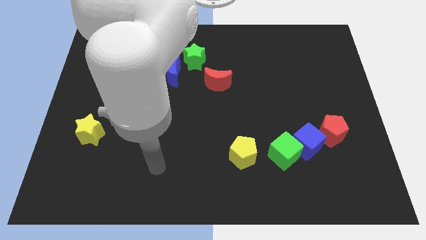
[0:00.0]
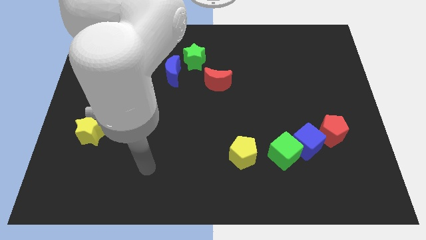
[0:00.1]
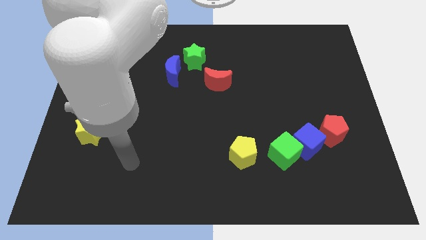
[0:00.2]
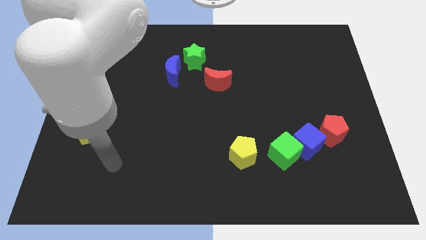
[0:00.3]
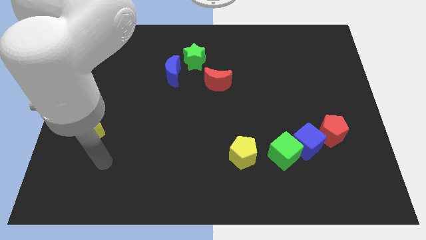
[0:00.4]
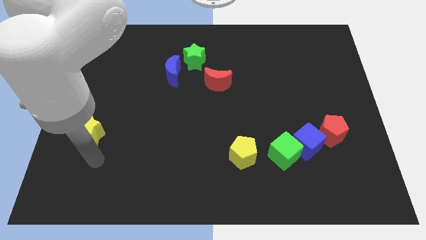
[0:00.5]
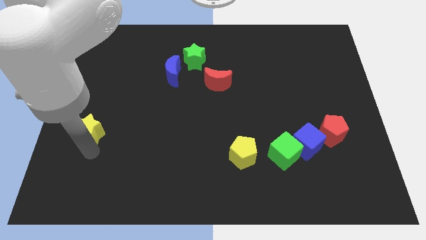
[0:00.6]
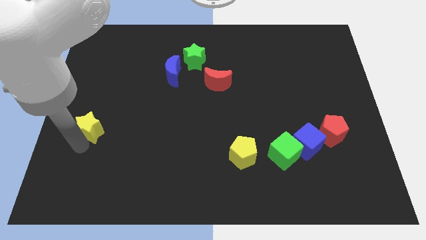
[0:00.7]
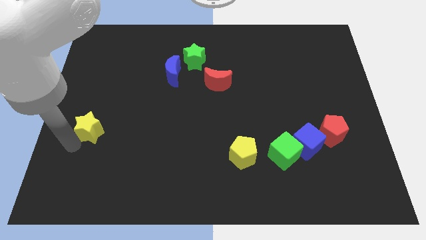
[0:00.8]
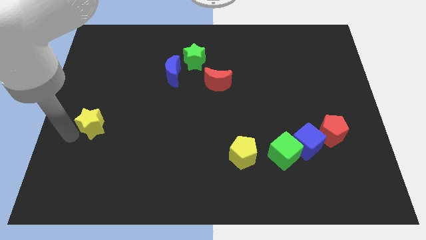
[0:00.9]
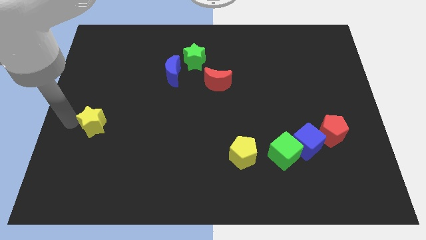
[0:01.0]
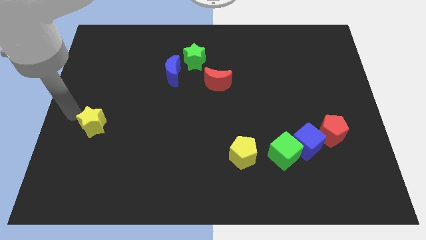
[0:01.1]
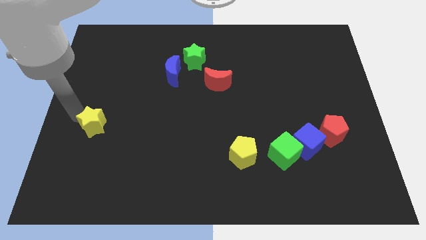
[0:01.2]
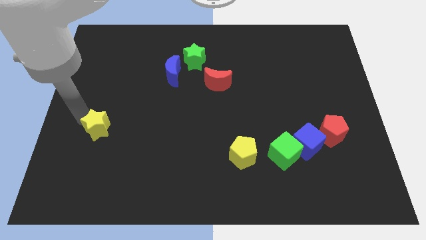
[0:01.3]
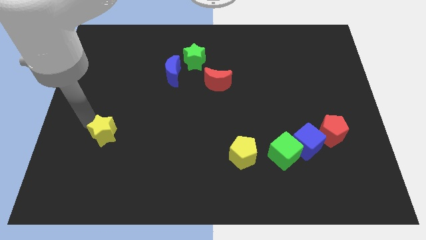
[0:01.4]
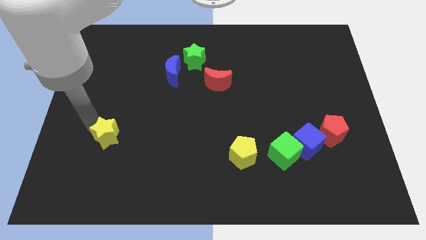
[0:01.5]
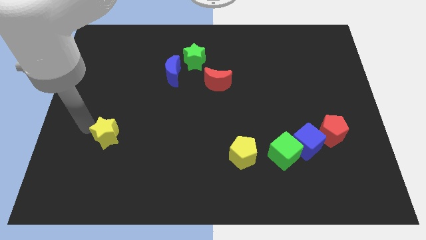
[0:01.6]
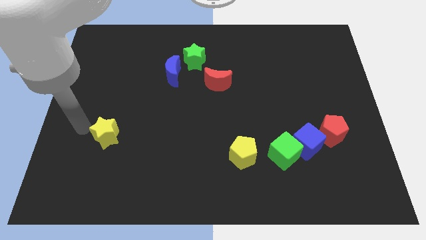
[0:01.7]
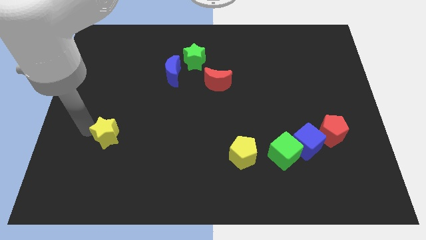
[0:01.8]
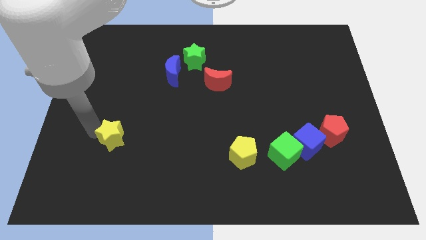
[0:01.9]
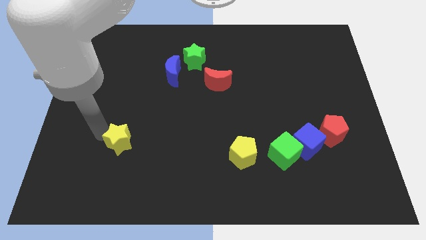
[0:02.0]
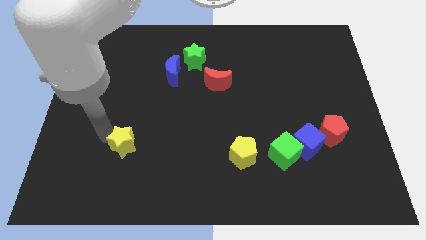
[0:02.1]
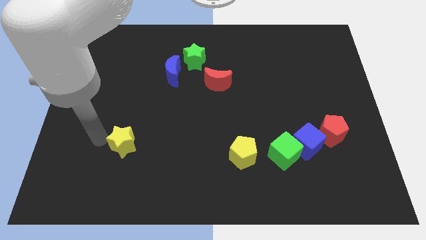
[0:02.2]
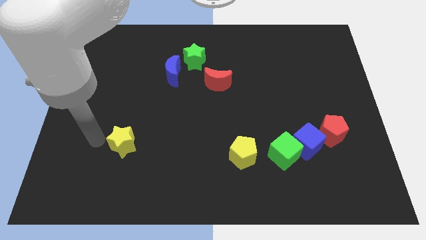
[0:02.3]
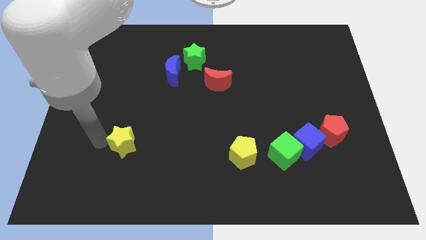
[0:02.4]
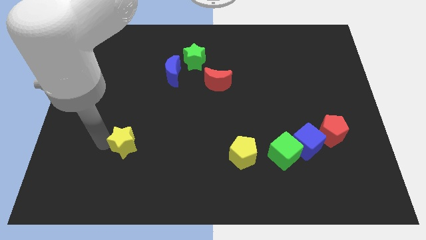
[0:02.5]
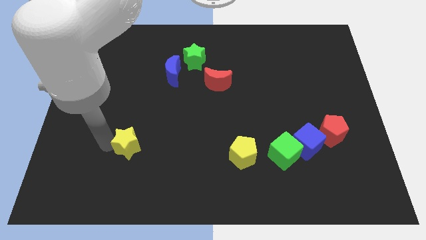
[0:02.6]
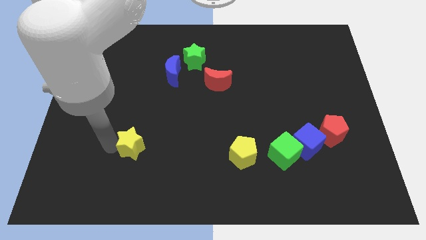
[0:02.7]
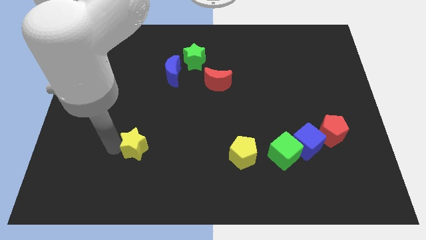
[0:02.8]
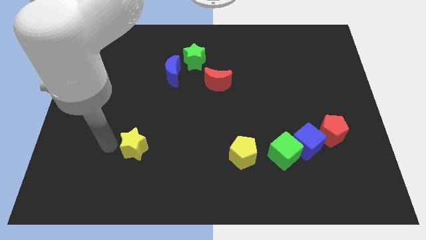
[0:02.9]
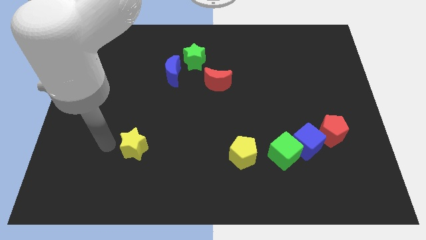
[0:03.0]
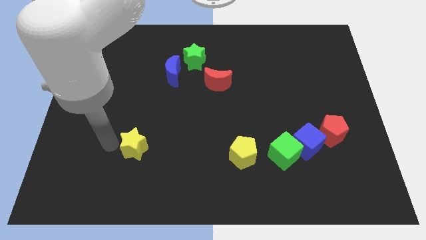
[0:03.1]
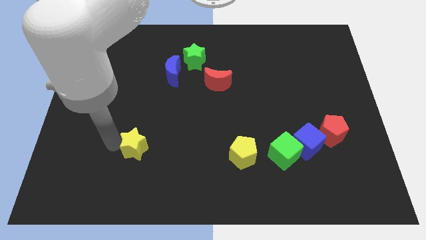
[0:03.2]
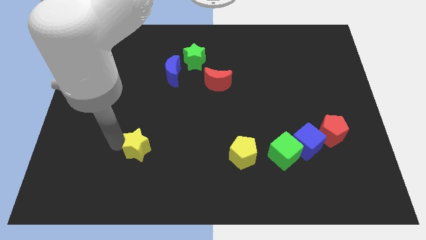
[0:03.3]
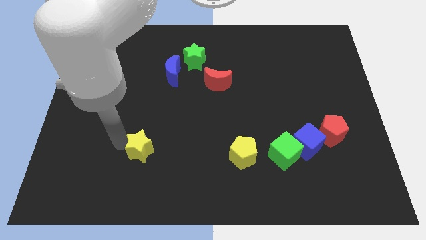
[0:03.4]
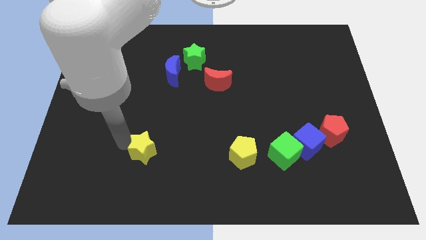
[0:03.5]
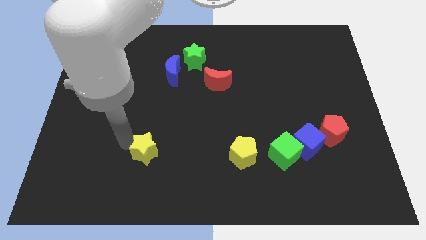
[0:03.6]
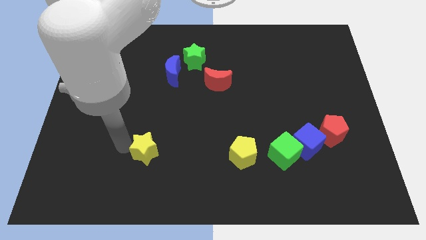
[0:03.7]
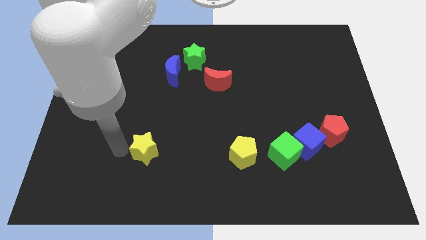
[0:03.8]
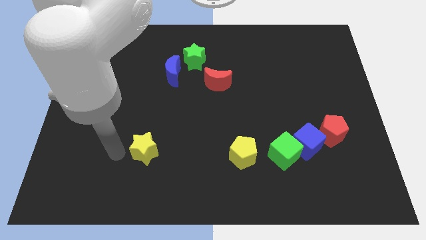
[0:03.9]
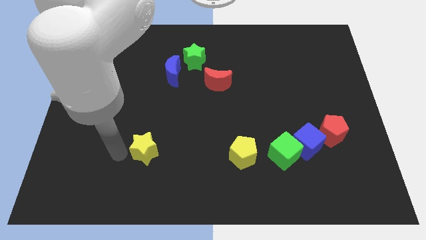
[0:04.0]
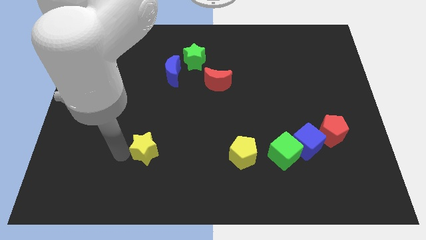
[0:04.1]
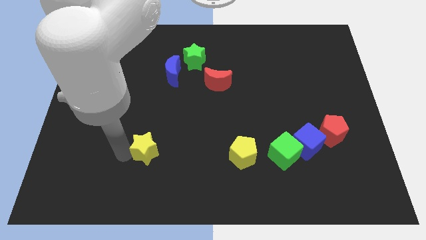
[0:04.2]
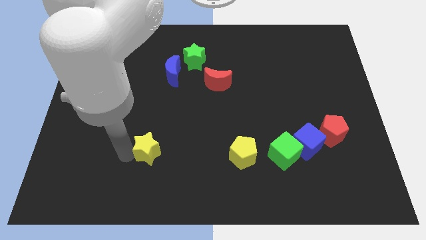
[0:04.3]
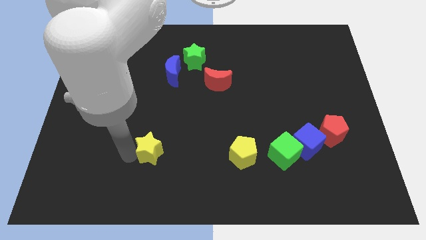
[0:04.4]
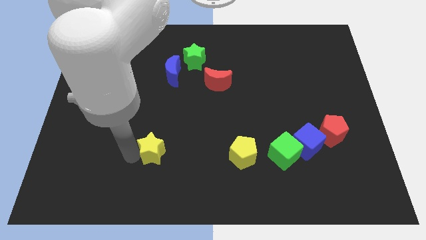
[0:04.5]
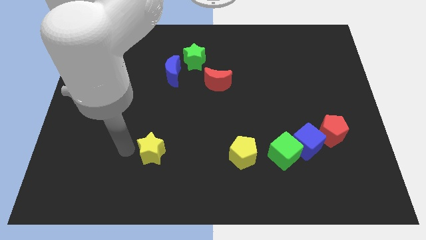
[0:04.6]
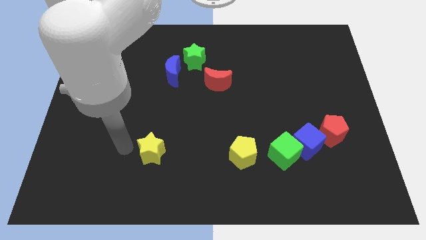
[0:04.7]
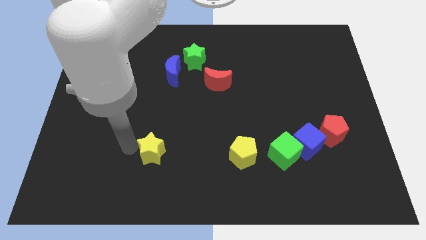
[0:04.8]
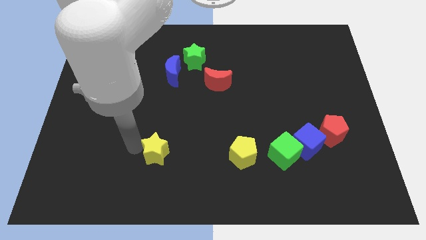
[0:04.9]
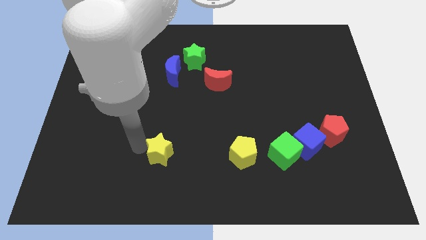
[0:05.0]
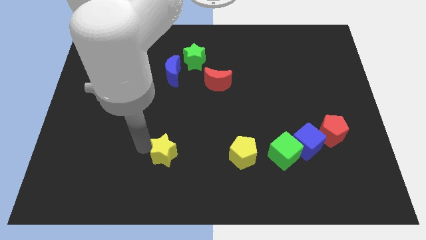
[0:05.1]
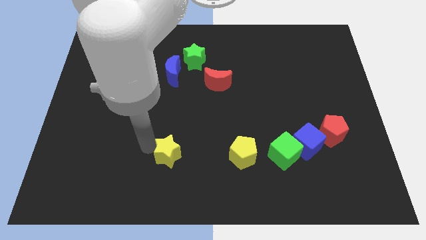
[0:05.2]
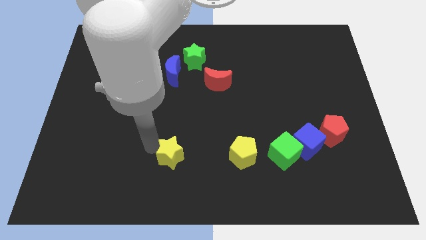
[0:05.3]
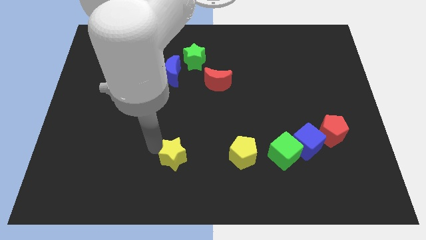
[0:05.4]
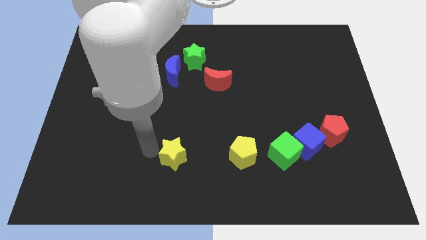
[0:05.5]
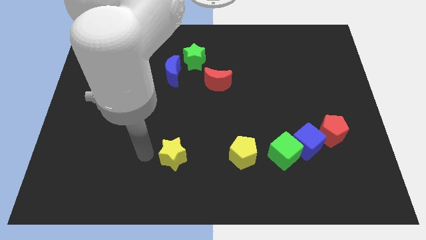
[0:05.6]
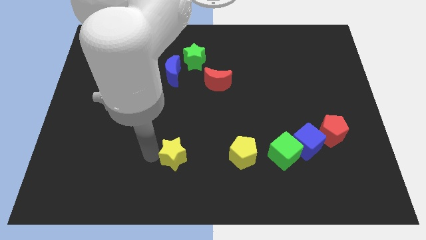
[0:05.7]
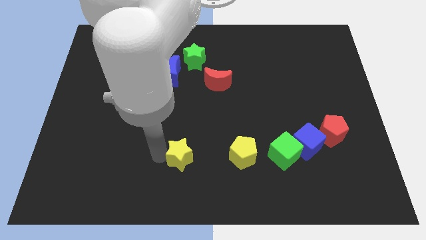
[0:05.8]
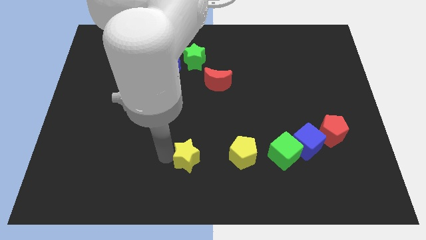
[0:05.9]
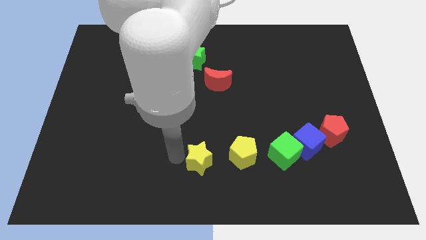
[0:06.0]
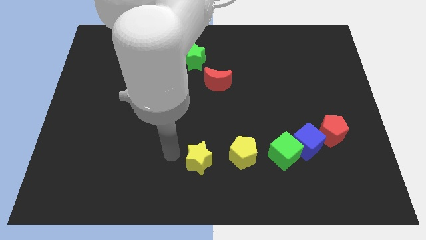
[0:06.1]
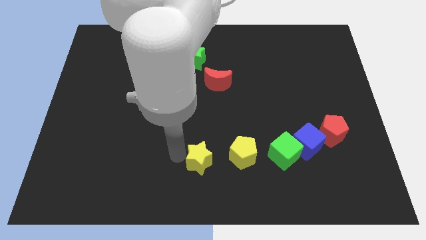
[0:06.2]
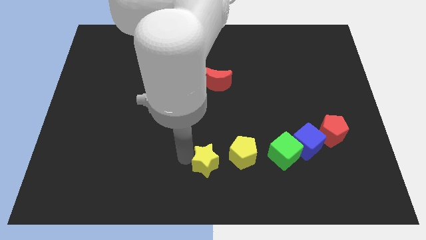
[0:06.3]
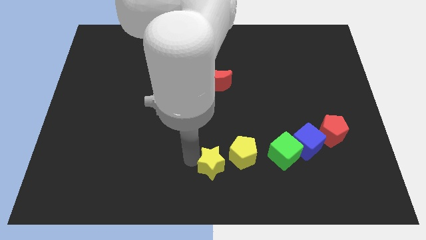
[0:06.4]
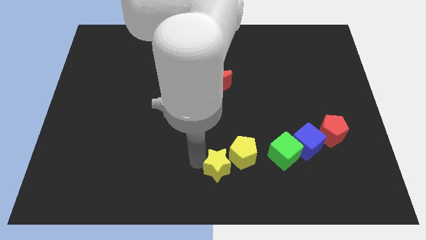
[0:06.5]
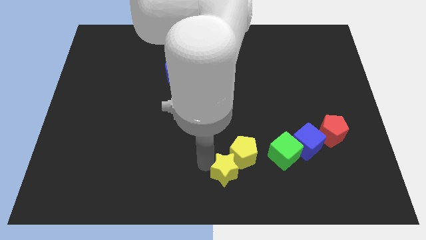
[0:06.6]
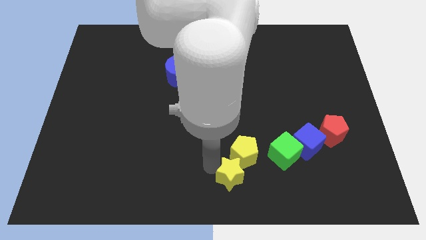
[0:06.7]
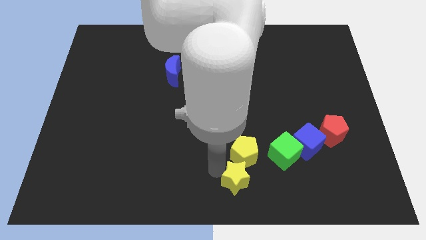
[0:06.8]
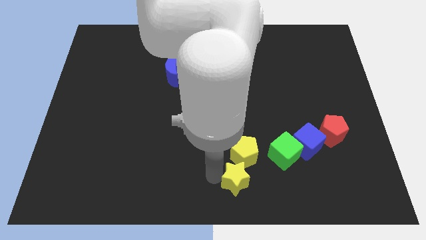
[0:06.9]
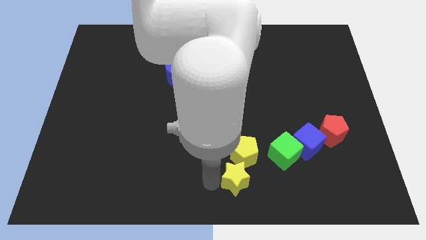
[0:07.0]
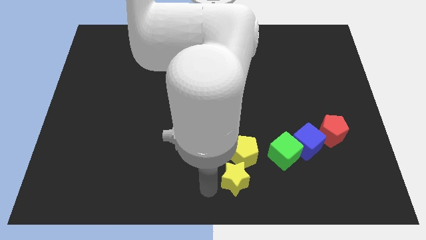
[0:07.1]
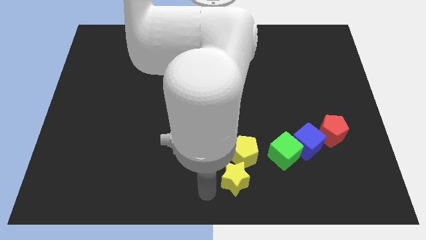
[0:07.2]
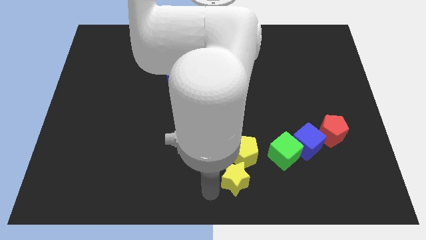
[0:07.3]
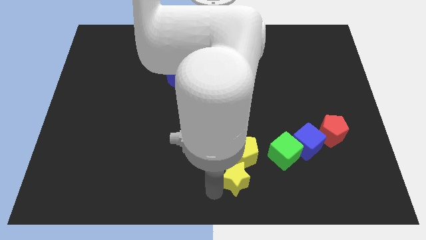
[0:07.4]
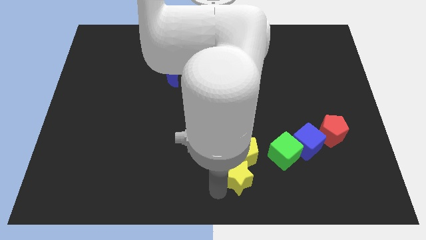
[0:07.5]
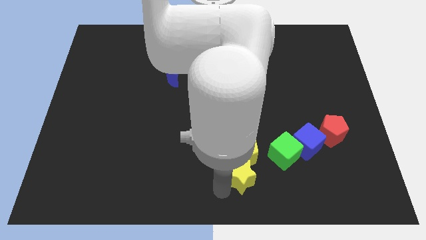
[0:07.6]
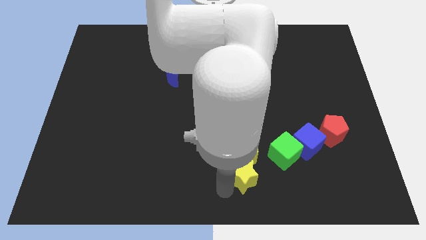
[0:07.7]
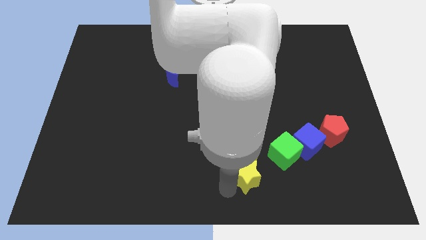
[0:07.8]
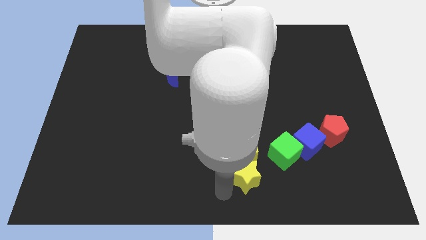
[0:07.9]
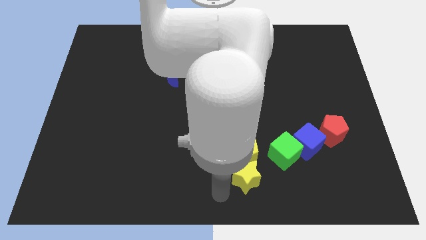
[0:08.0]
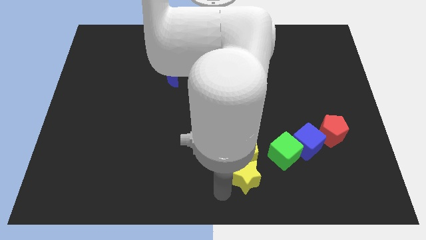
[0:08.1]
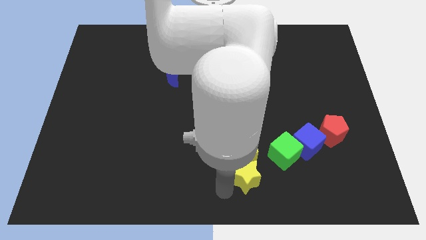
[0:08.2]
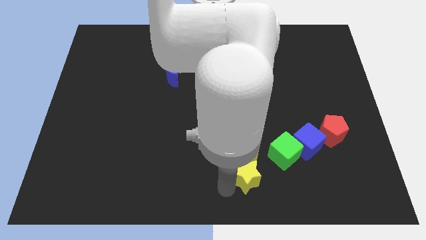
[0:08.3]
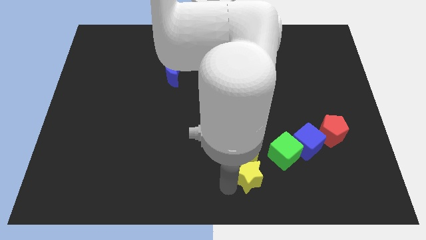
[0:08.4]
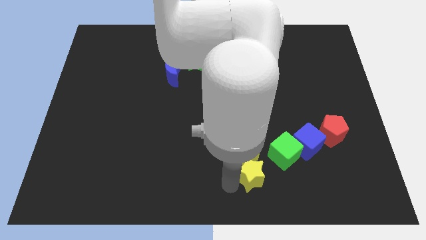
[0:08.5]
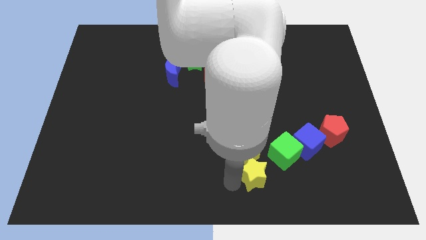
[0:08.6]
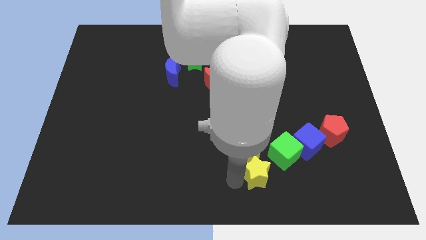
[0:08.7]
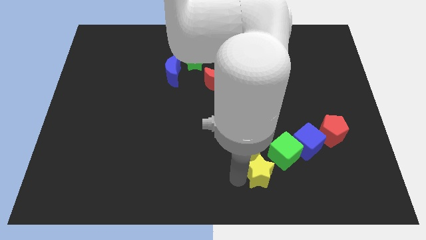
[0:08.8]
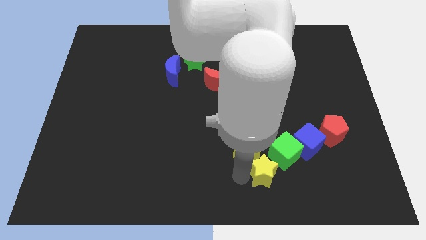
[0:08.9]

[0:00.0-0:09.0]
slide the yellow star to the bottom left side of the blue cube
